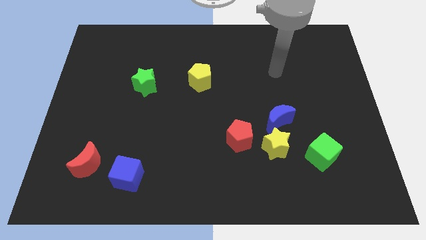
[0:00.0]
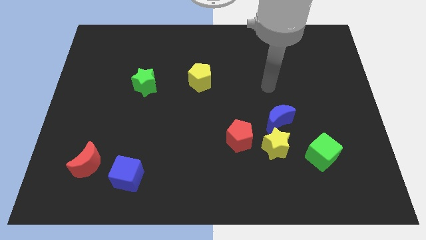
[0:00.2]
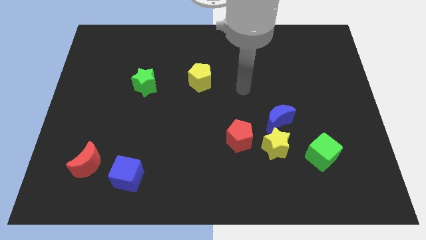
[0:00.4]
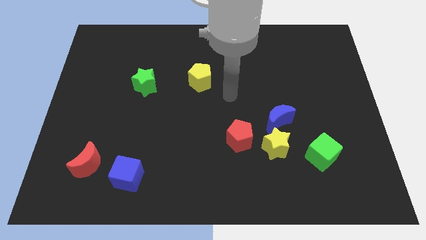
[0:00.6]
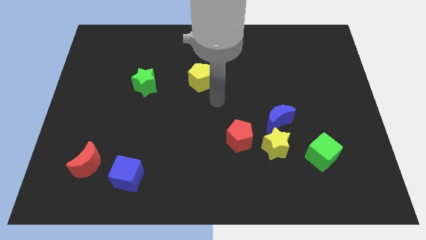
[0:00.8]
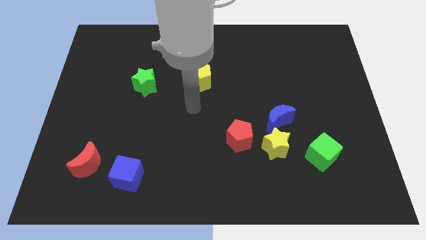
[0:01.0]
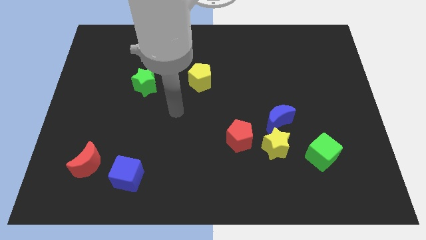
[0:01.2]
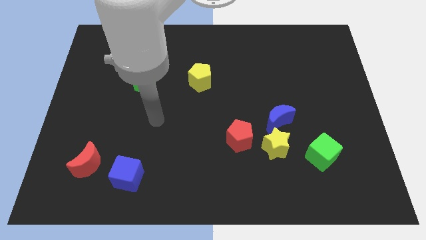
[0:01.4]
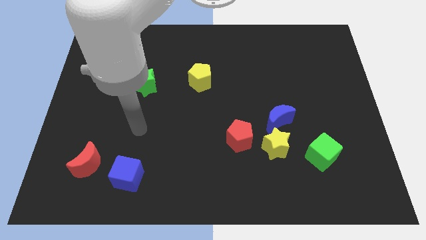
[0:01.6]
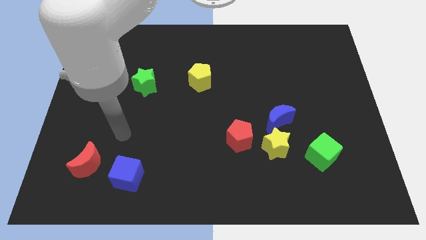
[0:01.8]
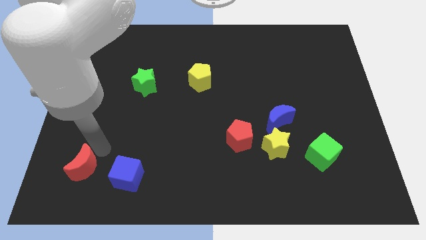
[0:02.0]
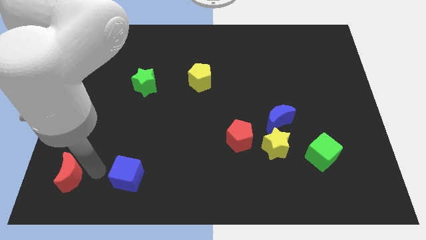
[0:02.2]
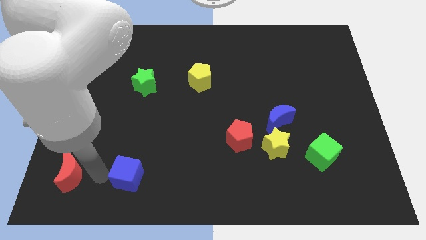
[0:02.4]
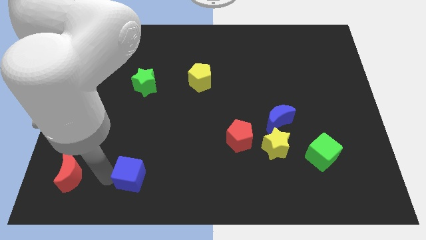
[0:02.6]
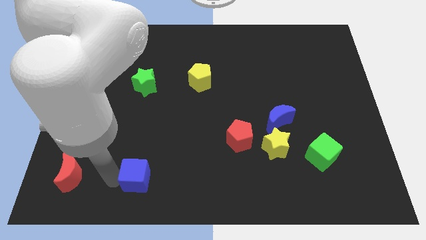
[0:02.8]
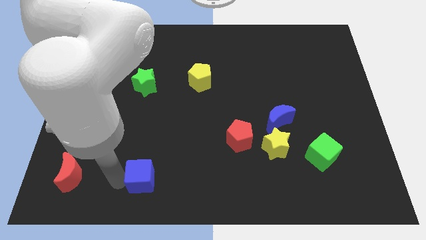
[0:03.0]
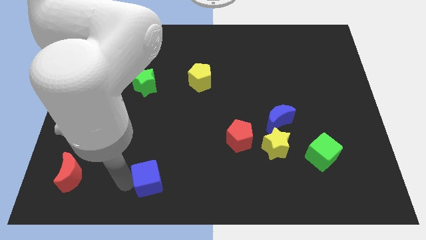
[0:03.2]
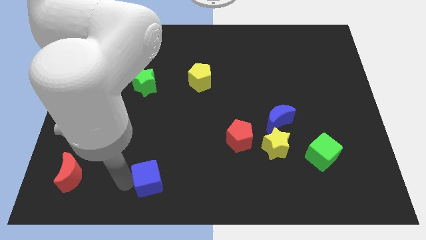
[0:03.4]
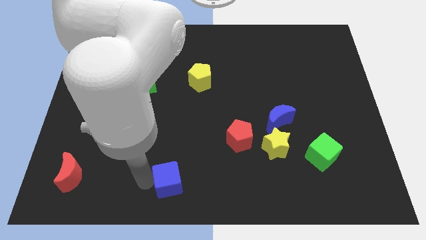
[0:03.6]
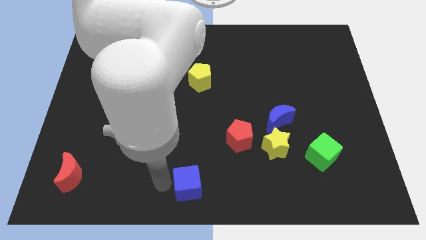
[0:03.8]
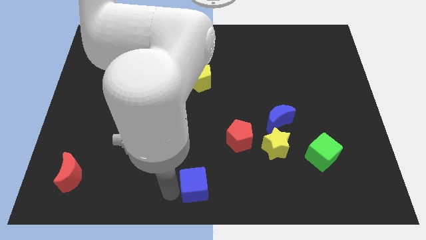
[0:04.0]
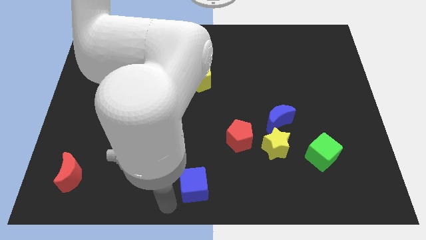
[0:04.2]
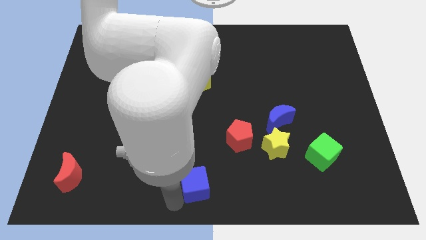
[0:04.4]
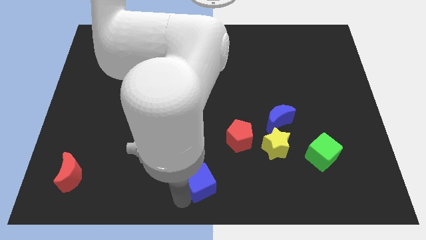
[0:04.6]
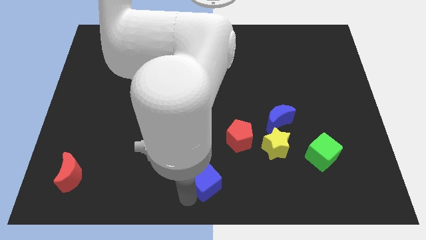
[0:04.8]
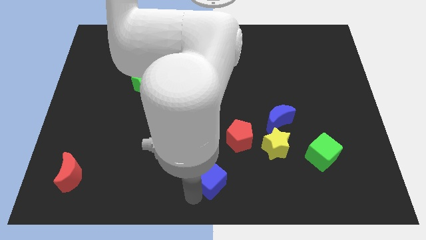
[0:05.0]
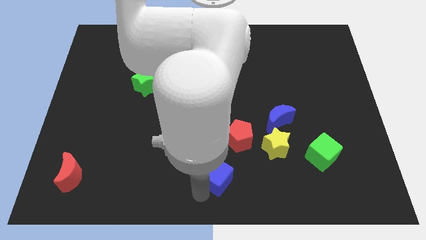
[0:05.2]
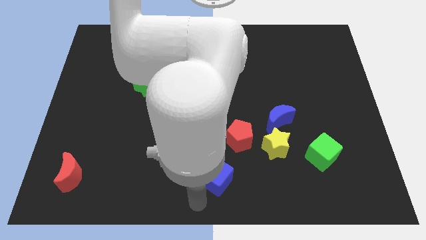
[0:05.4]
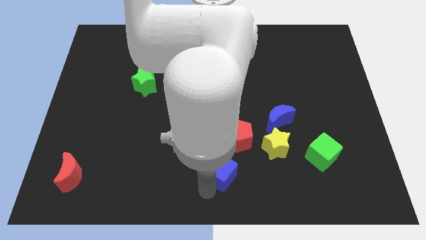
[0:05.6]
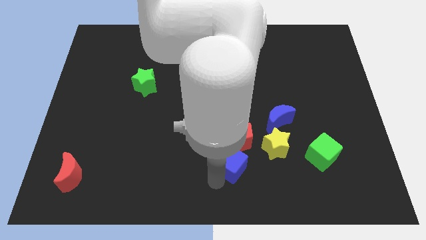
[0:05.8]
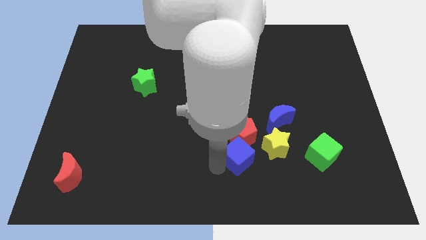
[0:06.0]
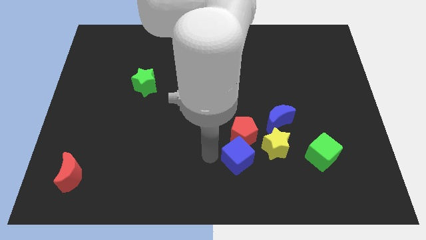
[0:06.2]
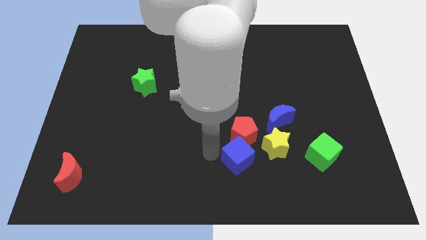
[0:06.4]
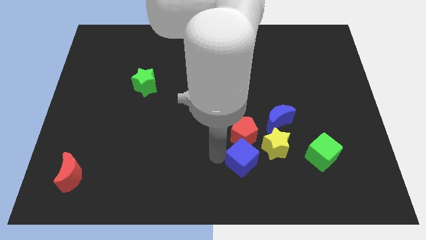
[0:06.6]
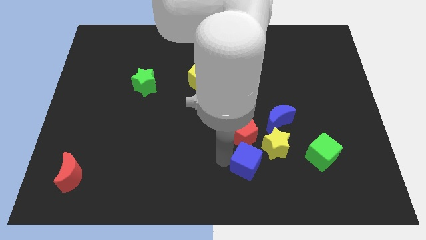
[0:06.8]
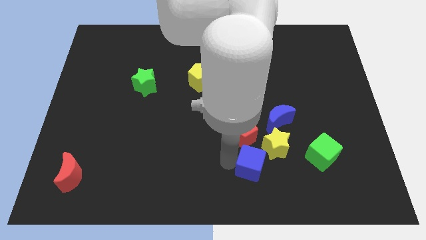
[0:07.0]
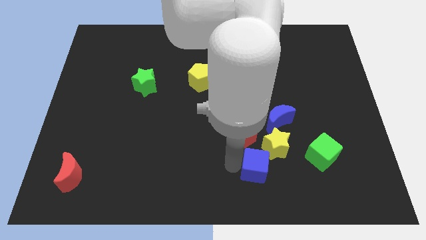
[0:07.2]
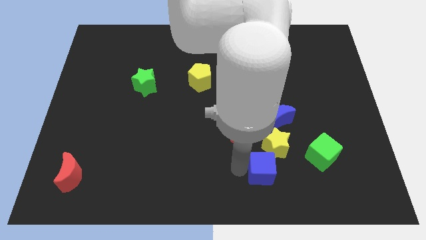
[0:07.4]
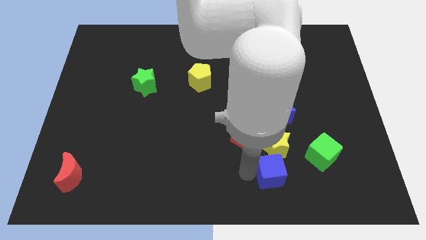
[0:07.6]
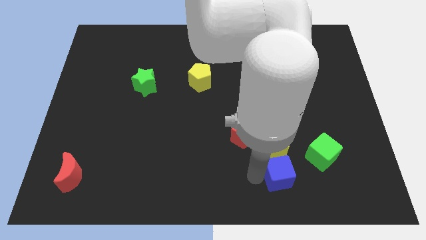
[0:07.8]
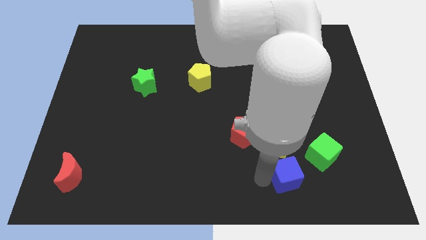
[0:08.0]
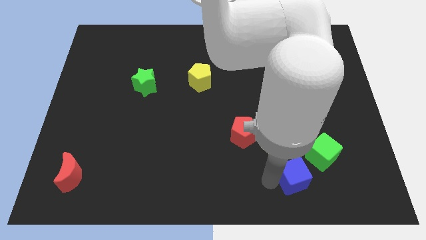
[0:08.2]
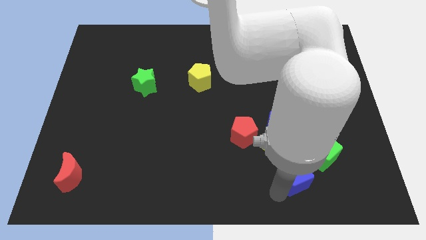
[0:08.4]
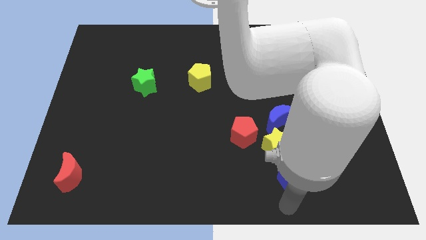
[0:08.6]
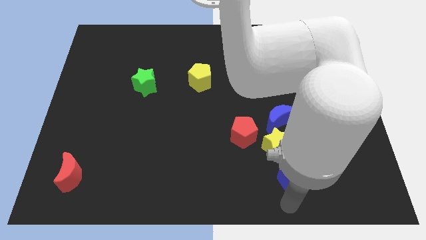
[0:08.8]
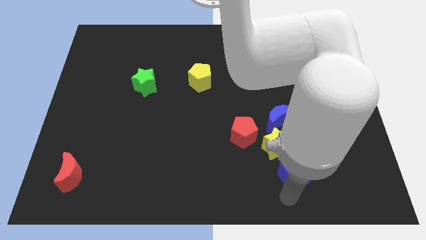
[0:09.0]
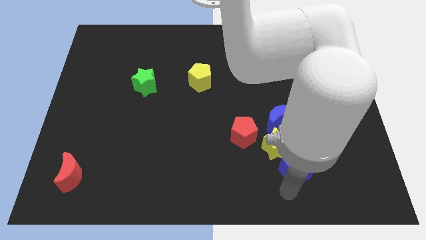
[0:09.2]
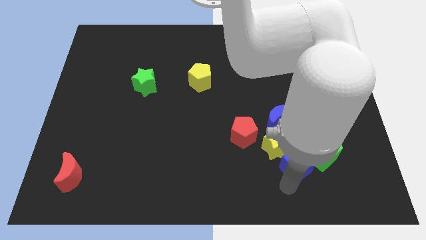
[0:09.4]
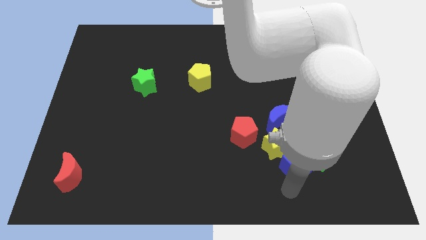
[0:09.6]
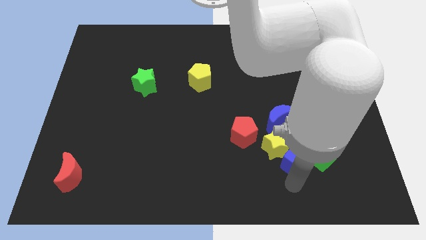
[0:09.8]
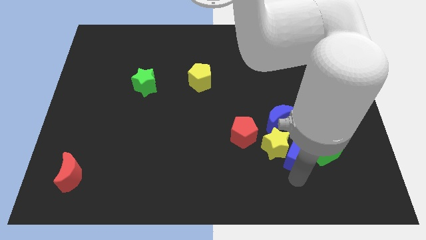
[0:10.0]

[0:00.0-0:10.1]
move the blue cube to the bottom right side of the blue moon

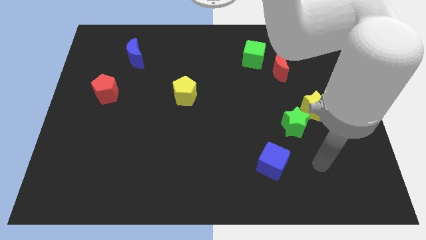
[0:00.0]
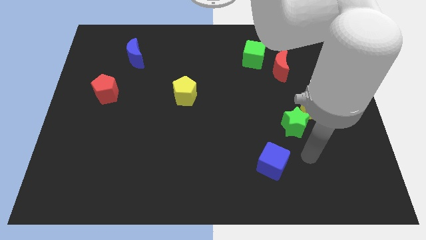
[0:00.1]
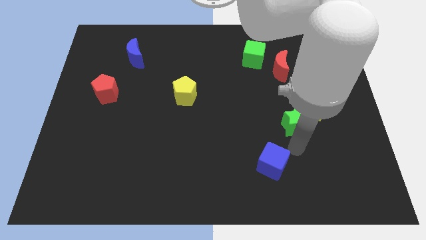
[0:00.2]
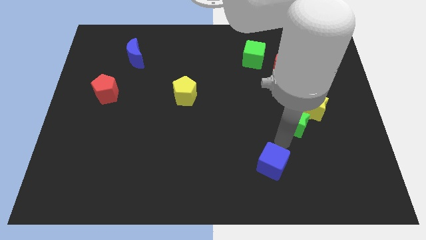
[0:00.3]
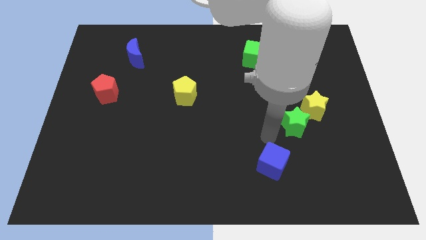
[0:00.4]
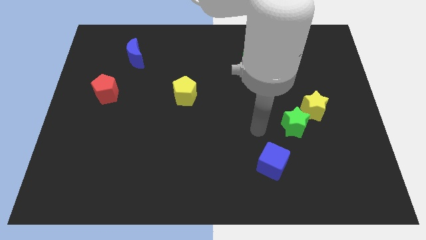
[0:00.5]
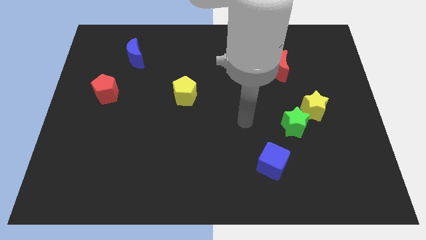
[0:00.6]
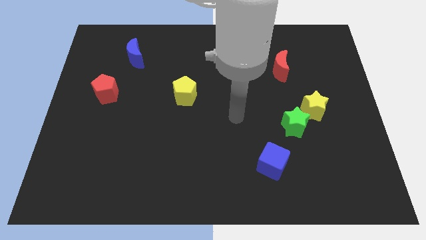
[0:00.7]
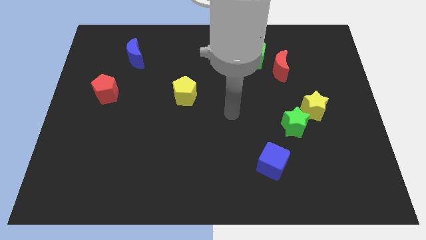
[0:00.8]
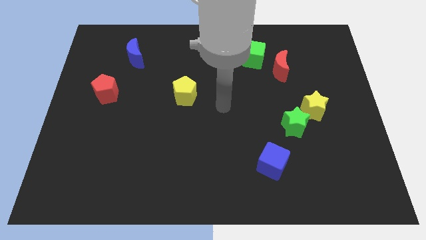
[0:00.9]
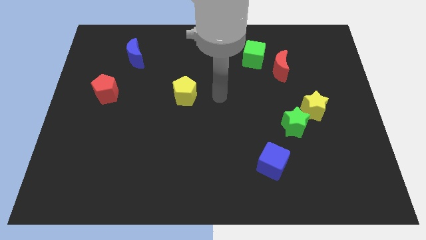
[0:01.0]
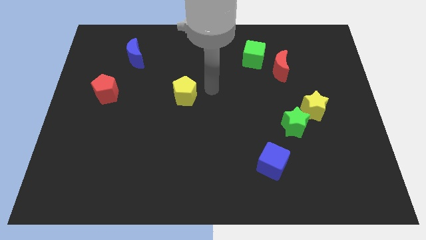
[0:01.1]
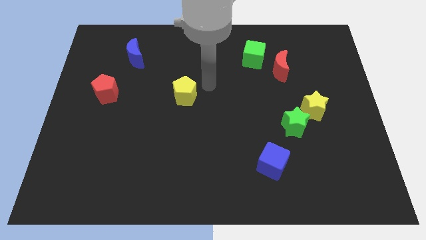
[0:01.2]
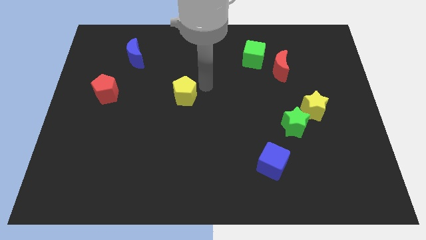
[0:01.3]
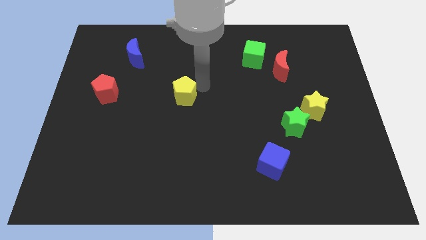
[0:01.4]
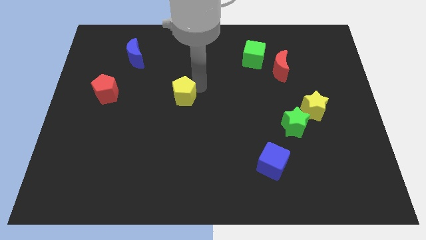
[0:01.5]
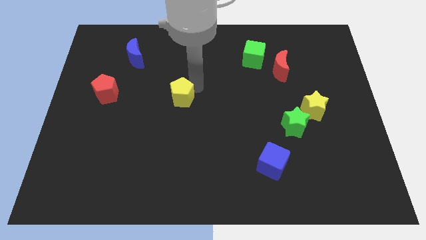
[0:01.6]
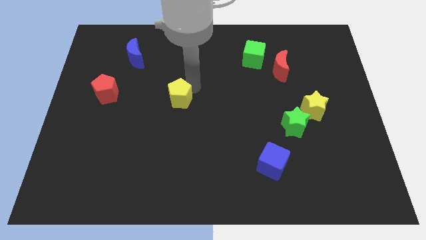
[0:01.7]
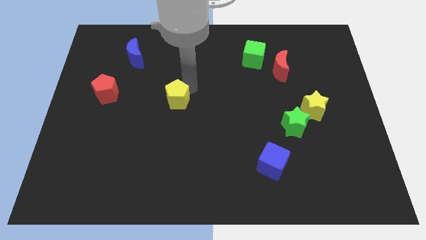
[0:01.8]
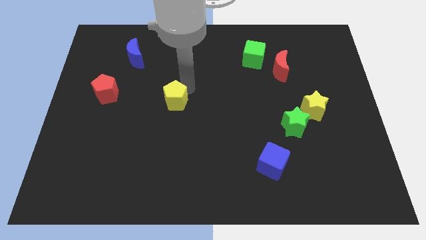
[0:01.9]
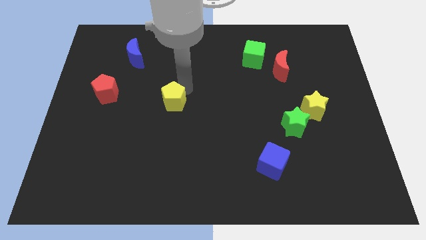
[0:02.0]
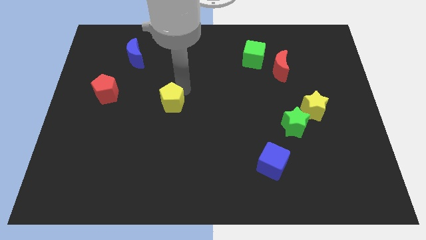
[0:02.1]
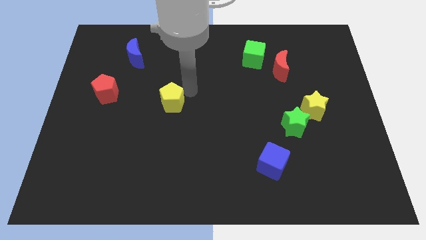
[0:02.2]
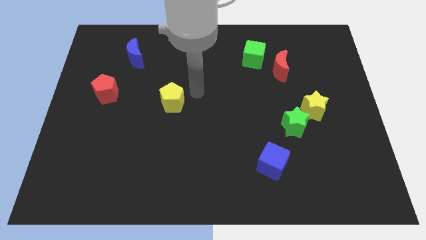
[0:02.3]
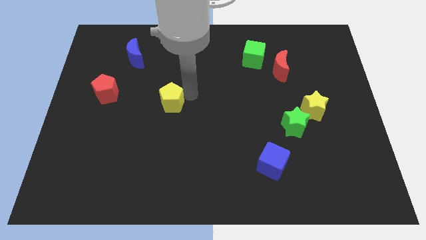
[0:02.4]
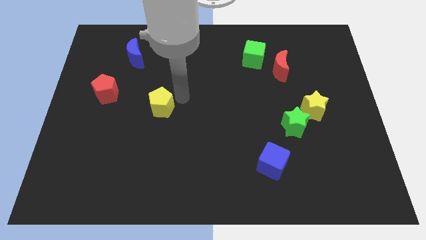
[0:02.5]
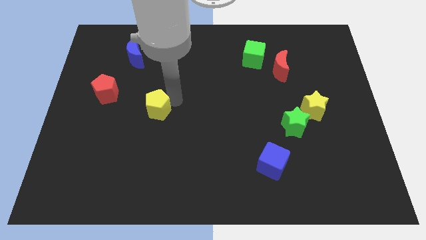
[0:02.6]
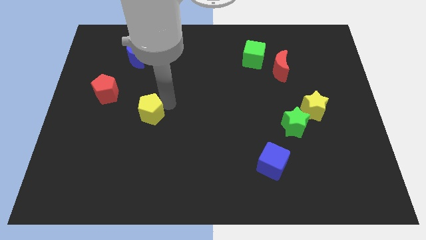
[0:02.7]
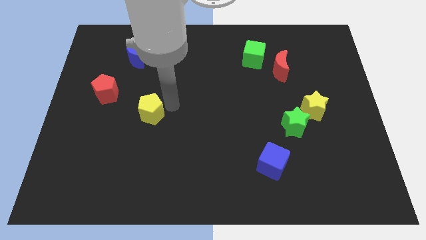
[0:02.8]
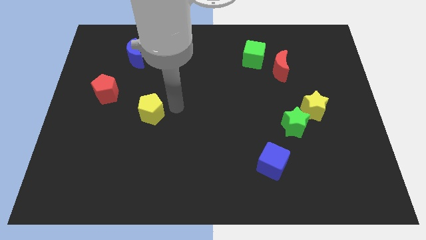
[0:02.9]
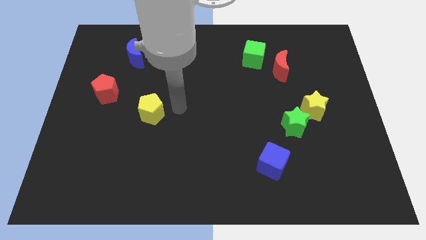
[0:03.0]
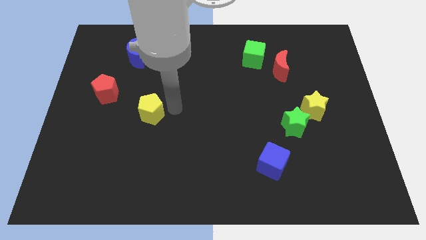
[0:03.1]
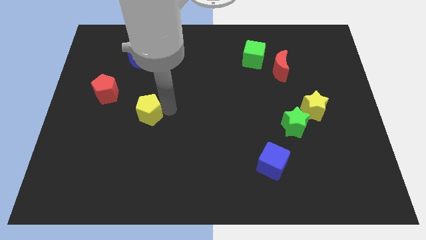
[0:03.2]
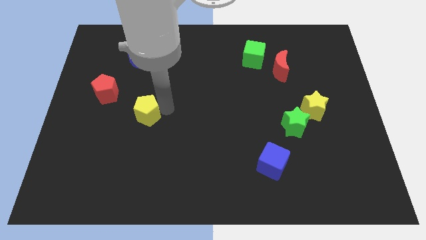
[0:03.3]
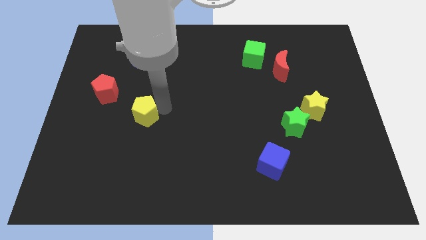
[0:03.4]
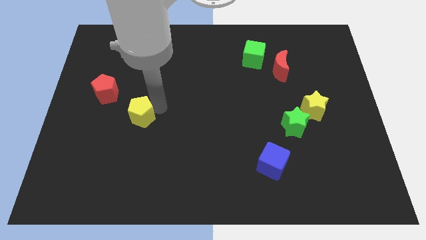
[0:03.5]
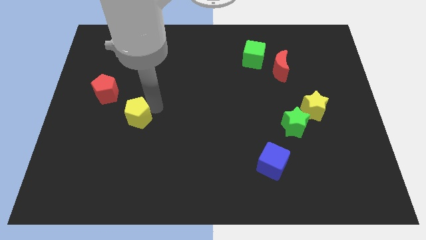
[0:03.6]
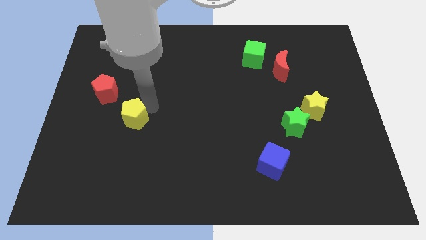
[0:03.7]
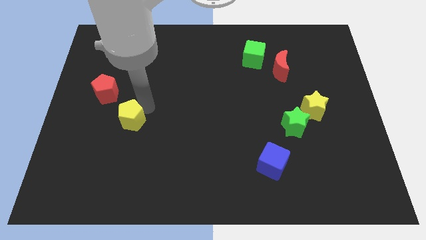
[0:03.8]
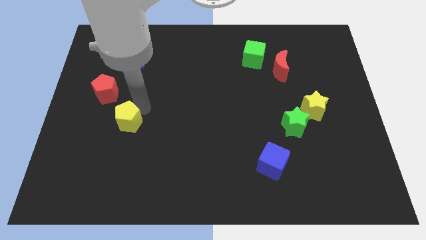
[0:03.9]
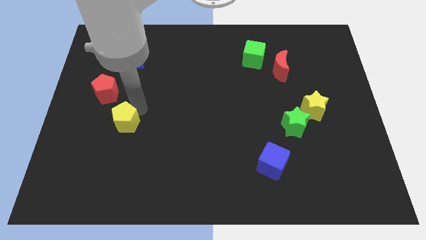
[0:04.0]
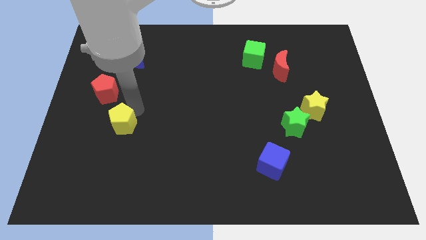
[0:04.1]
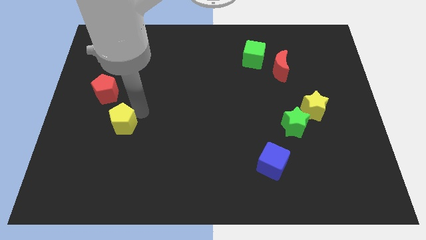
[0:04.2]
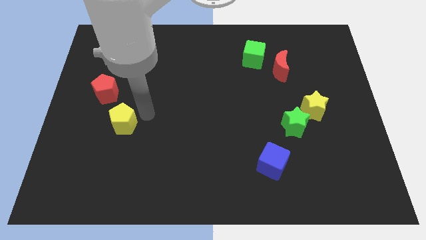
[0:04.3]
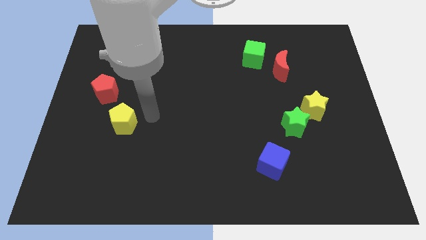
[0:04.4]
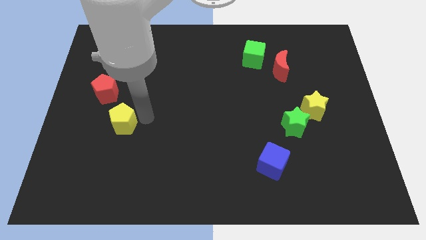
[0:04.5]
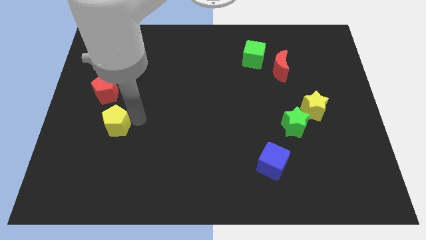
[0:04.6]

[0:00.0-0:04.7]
push the yellow pentagon to the bottom side of the red pentagon
